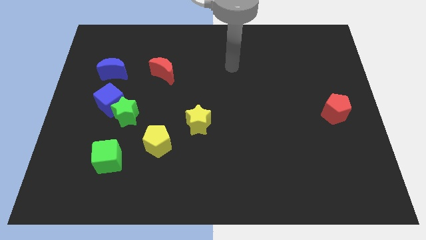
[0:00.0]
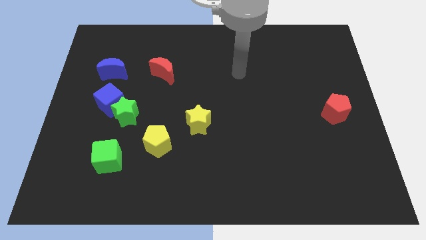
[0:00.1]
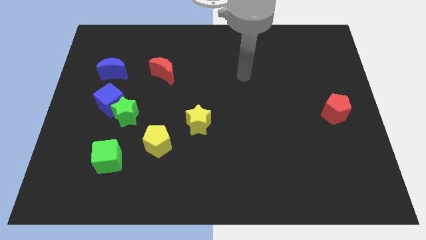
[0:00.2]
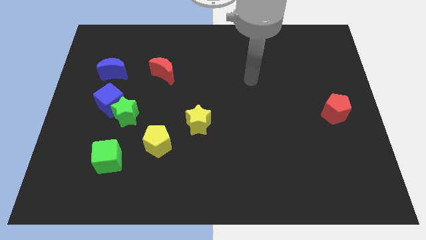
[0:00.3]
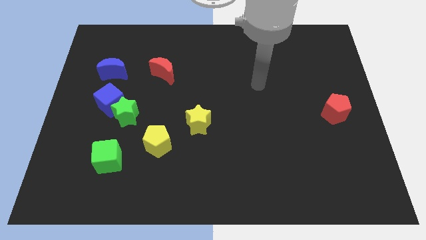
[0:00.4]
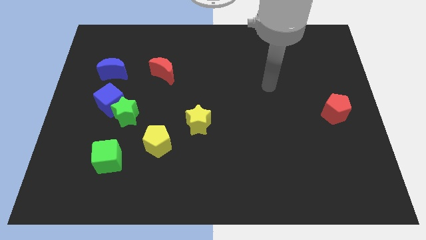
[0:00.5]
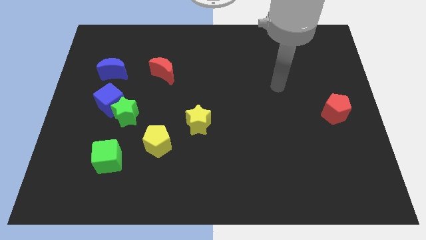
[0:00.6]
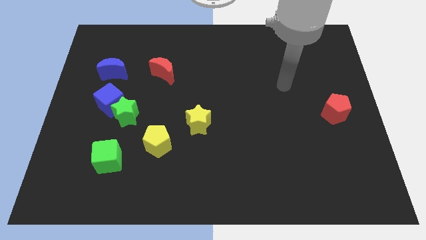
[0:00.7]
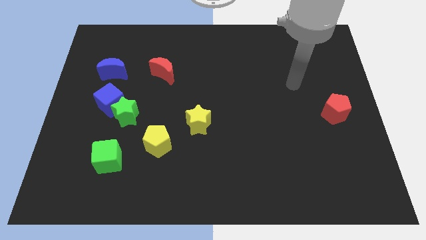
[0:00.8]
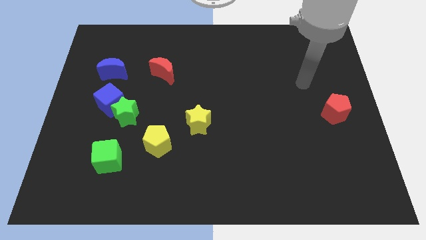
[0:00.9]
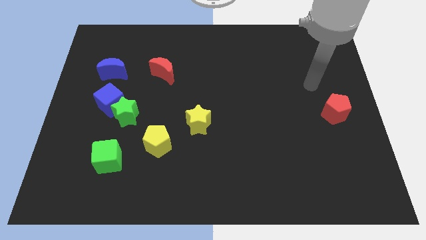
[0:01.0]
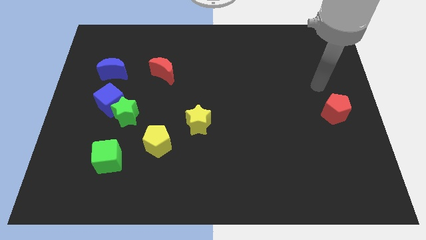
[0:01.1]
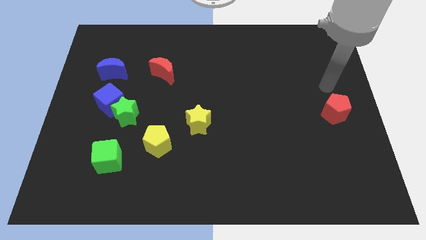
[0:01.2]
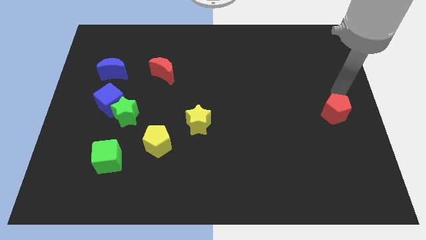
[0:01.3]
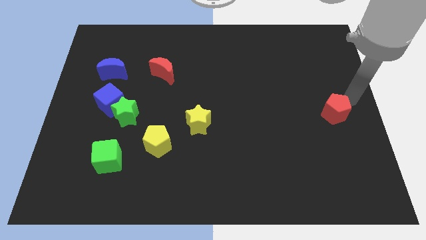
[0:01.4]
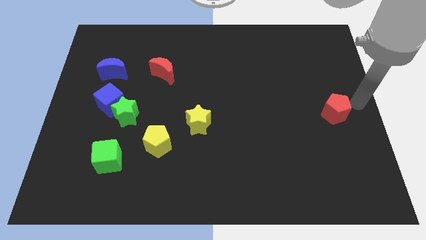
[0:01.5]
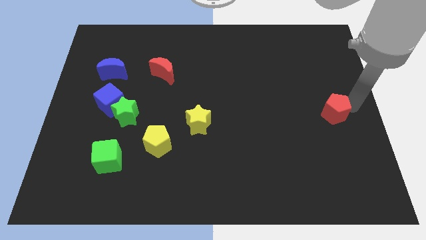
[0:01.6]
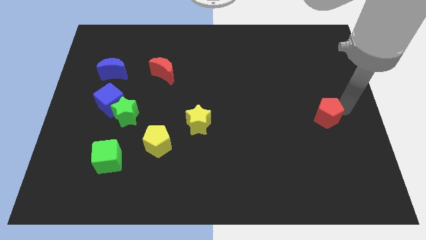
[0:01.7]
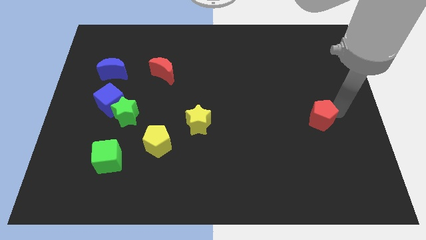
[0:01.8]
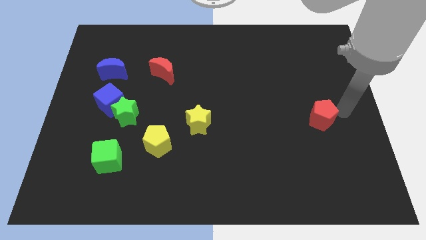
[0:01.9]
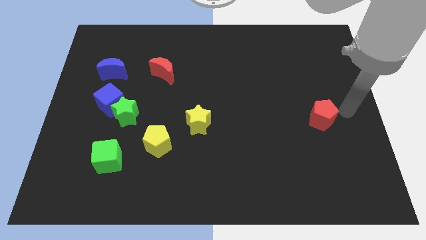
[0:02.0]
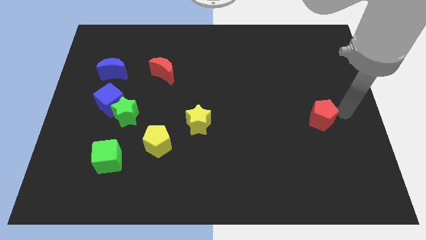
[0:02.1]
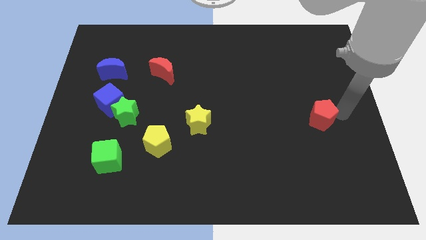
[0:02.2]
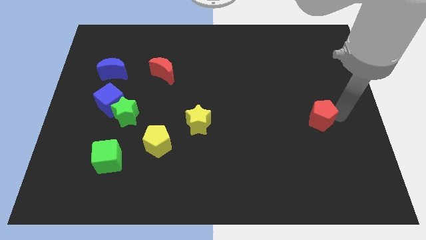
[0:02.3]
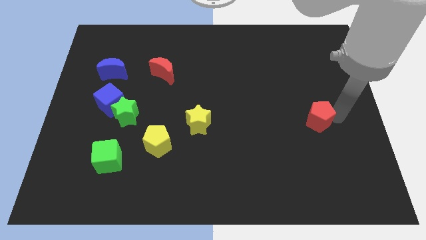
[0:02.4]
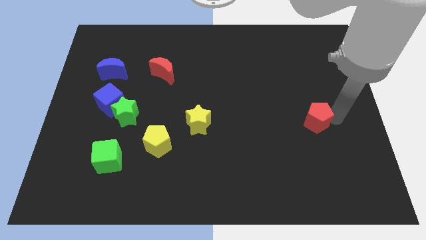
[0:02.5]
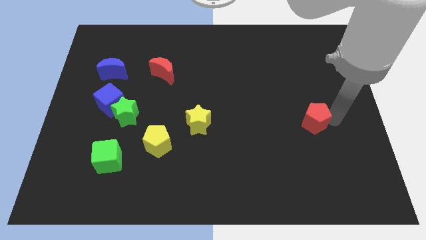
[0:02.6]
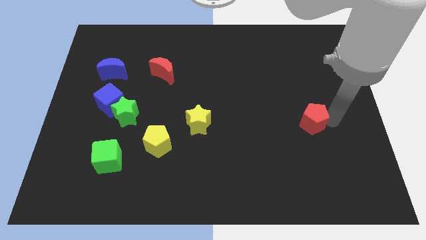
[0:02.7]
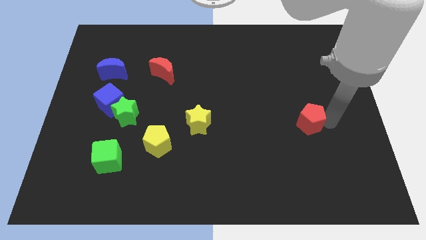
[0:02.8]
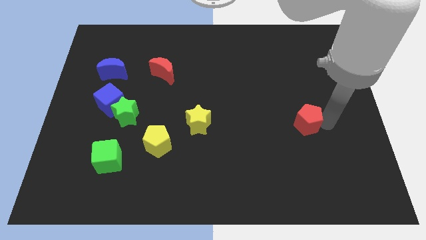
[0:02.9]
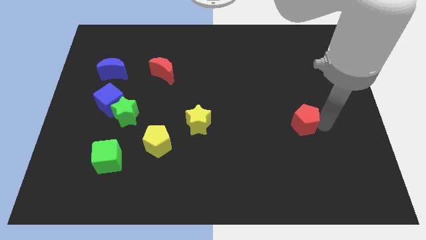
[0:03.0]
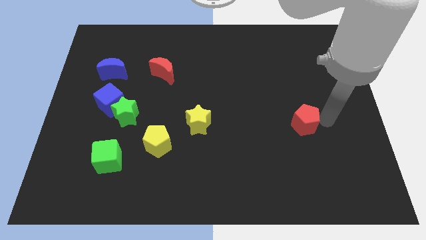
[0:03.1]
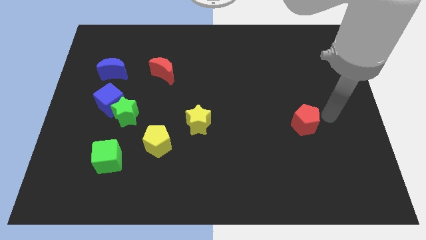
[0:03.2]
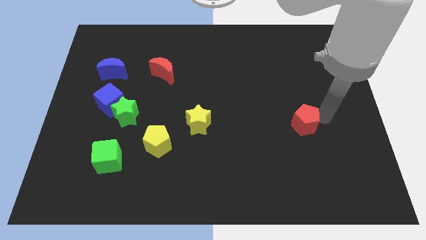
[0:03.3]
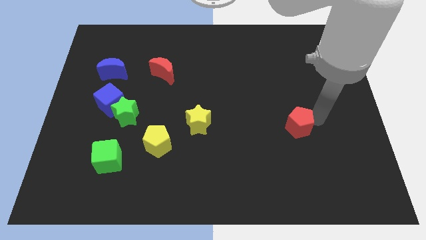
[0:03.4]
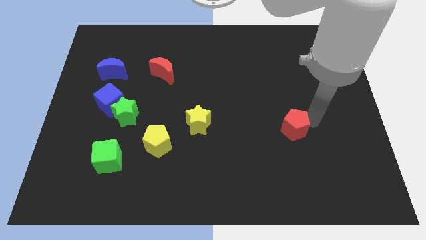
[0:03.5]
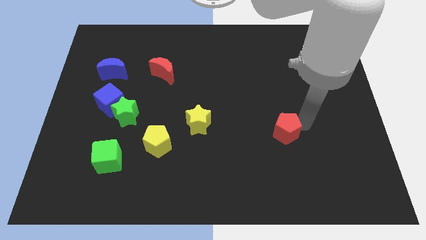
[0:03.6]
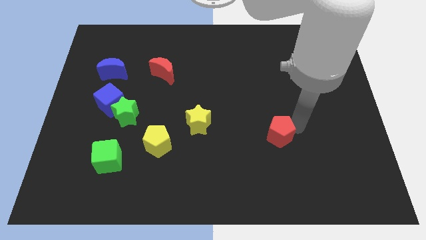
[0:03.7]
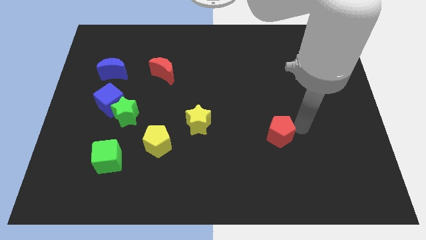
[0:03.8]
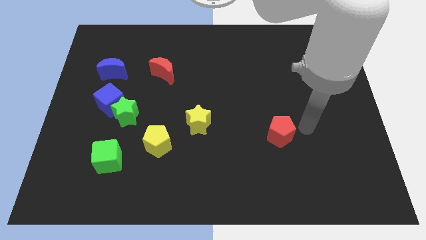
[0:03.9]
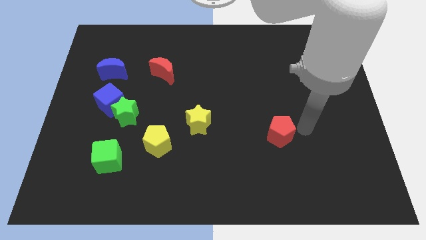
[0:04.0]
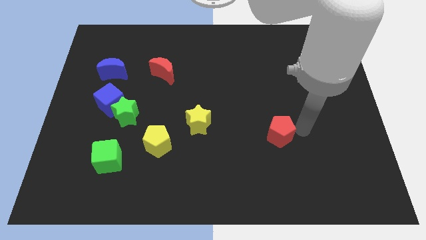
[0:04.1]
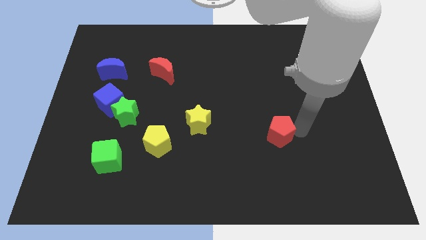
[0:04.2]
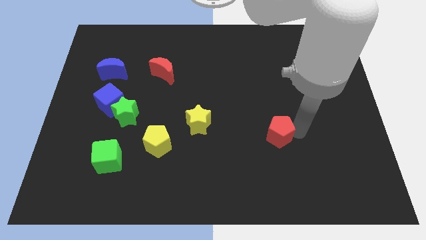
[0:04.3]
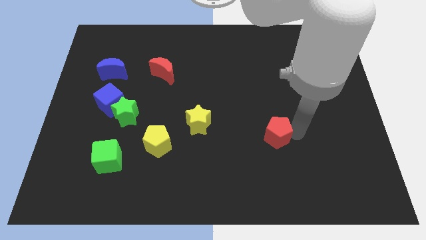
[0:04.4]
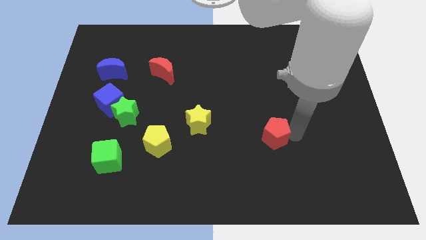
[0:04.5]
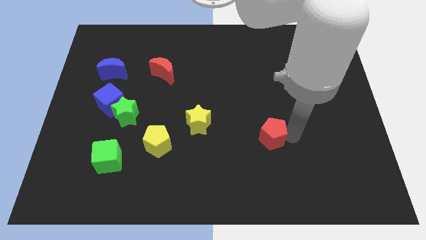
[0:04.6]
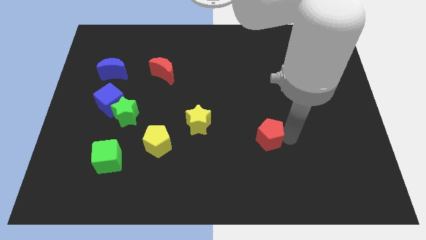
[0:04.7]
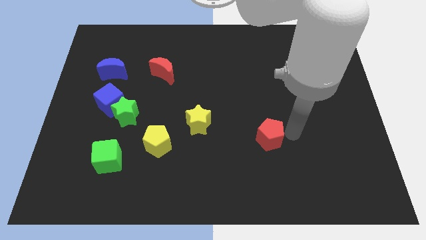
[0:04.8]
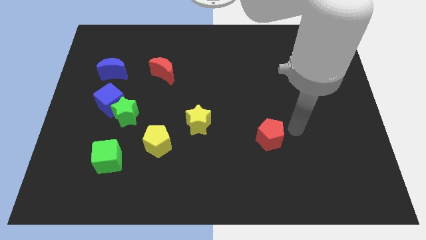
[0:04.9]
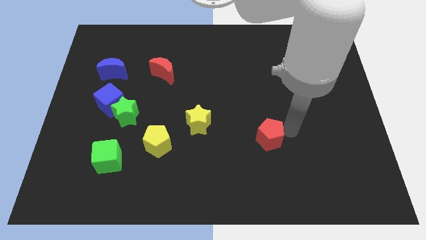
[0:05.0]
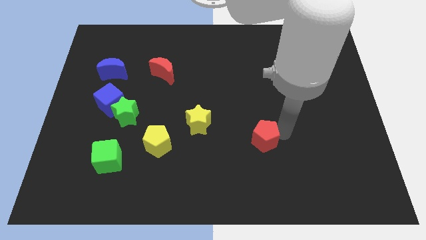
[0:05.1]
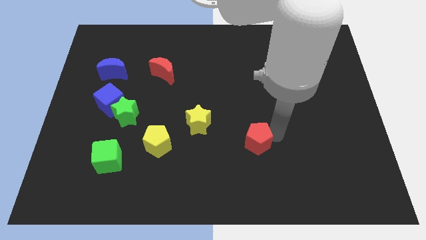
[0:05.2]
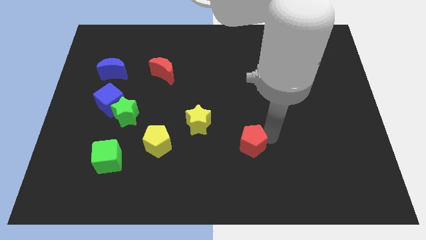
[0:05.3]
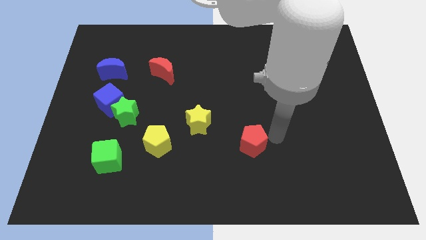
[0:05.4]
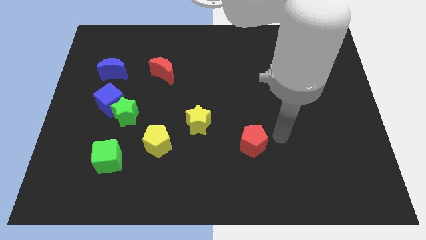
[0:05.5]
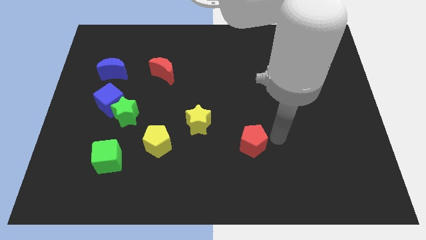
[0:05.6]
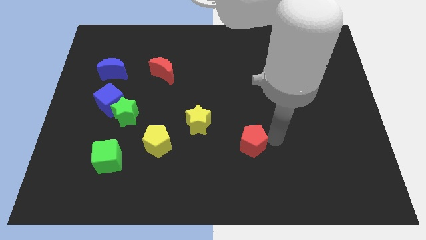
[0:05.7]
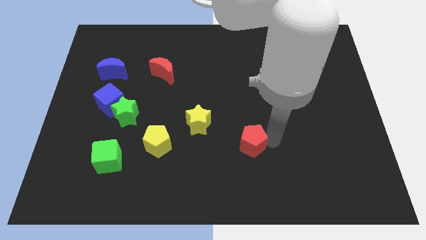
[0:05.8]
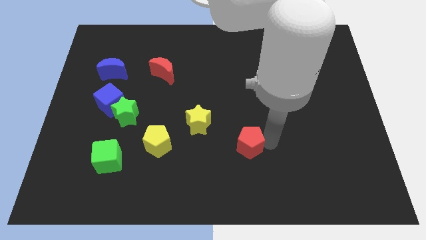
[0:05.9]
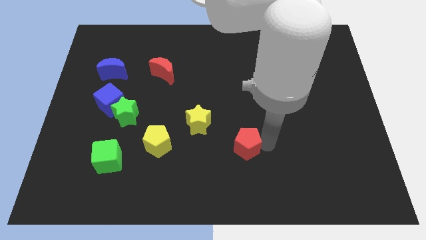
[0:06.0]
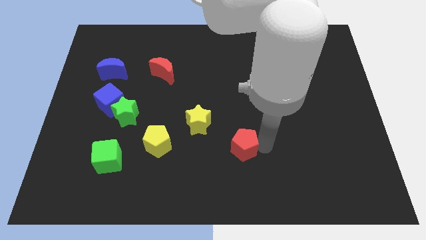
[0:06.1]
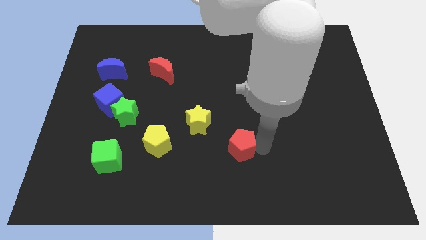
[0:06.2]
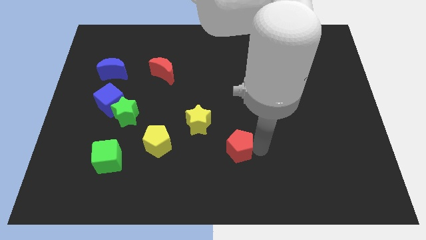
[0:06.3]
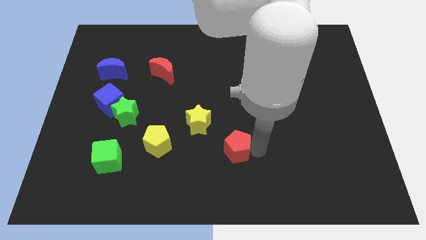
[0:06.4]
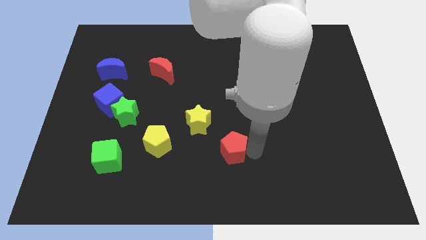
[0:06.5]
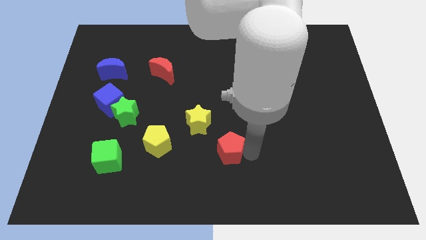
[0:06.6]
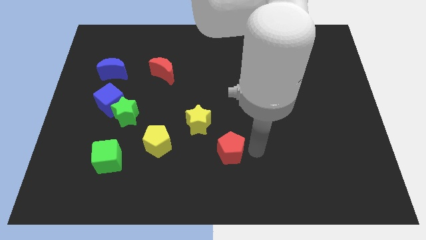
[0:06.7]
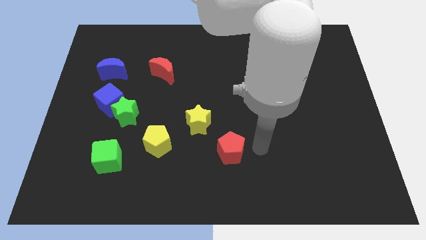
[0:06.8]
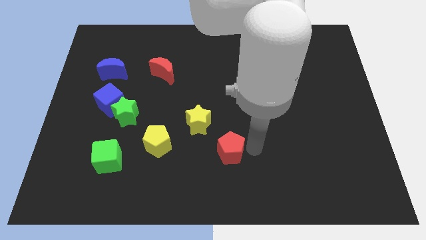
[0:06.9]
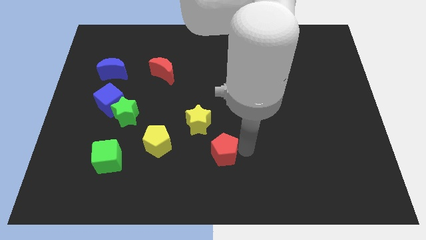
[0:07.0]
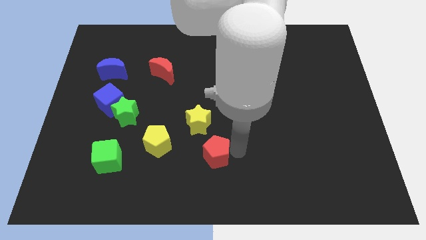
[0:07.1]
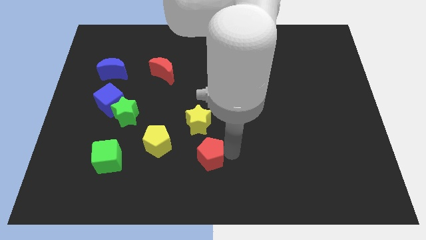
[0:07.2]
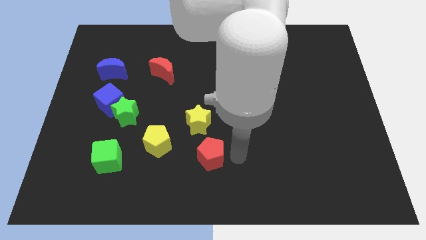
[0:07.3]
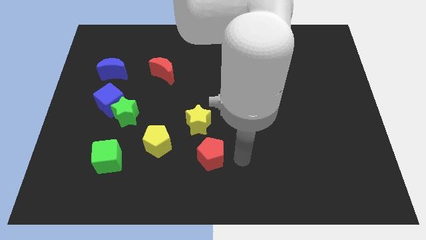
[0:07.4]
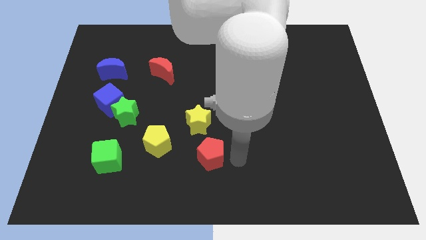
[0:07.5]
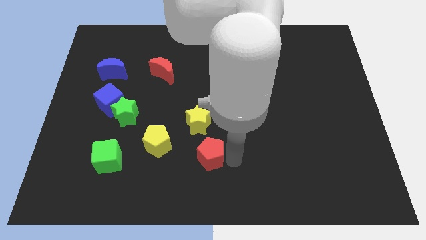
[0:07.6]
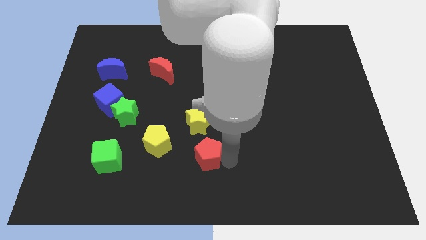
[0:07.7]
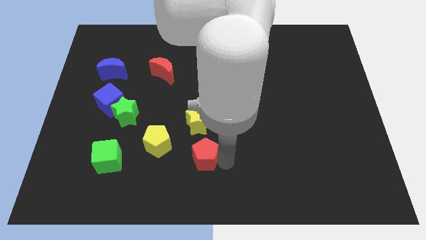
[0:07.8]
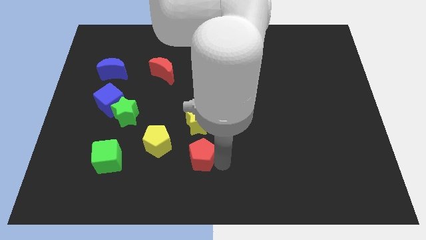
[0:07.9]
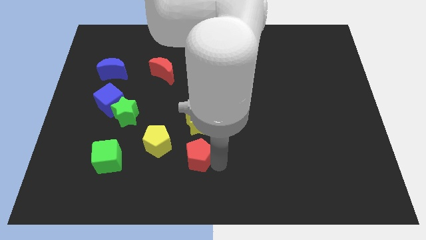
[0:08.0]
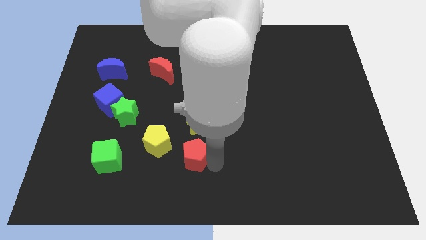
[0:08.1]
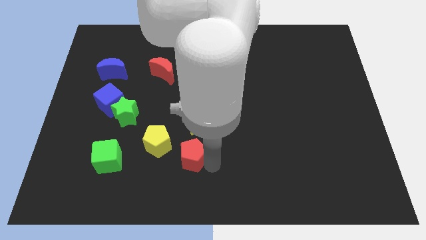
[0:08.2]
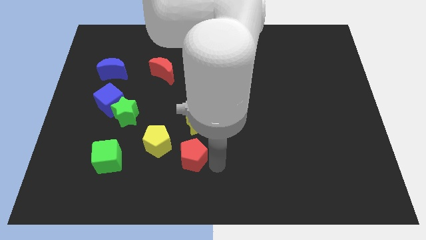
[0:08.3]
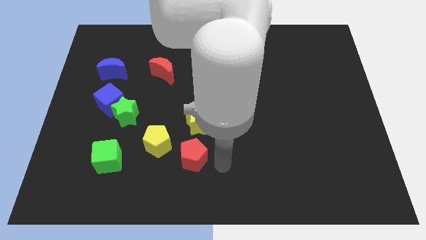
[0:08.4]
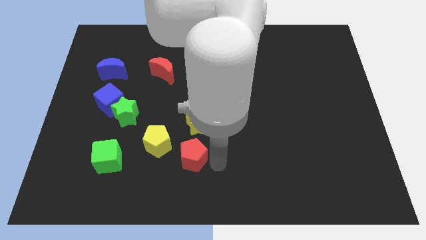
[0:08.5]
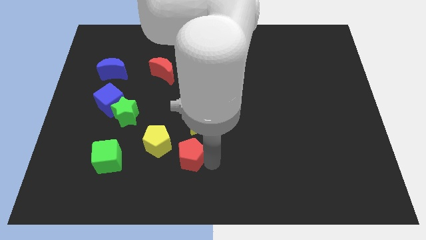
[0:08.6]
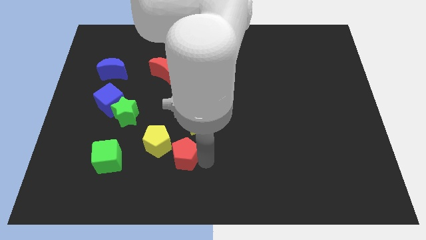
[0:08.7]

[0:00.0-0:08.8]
slide the red pentagon to the right side of the green cube
